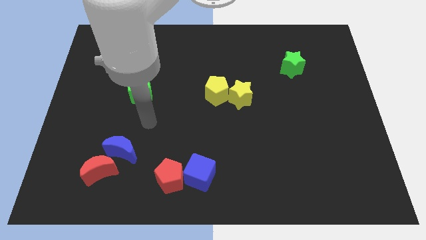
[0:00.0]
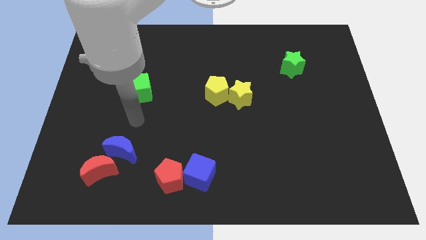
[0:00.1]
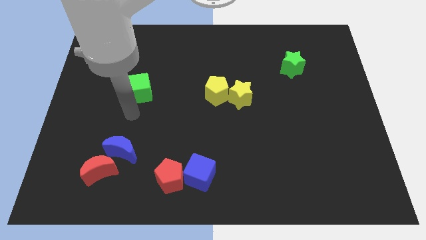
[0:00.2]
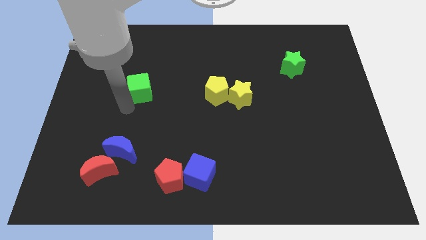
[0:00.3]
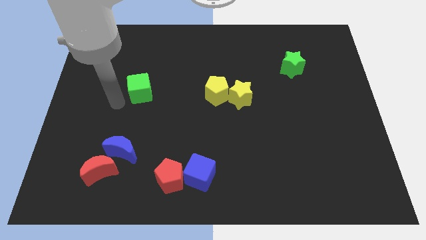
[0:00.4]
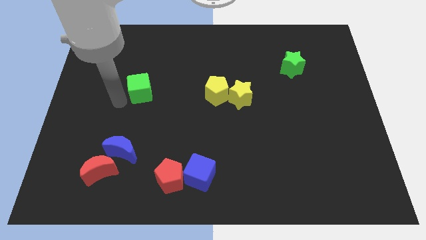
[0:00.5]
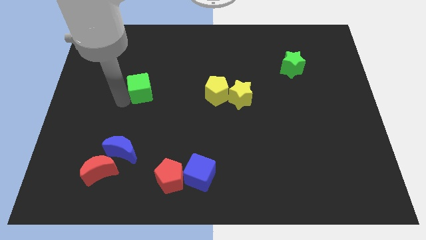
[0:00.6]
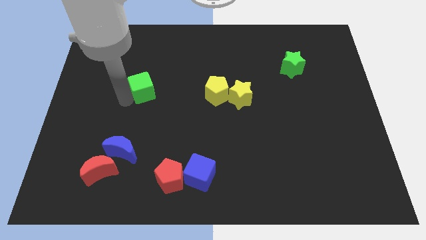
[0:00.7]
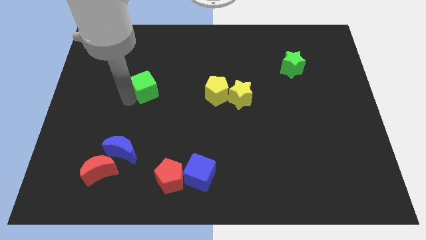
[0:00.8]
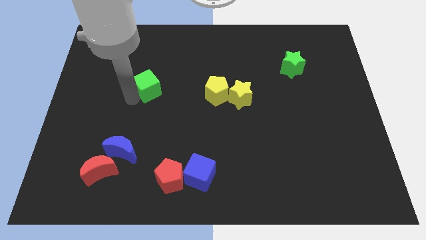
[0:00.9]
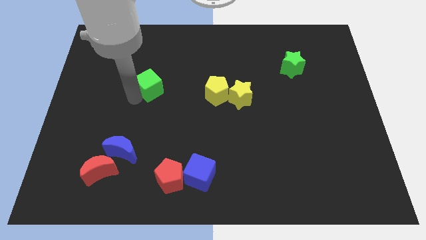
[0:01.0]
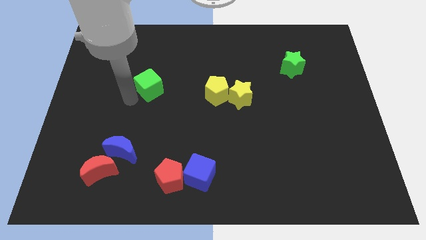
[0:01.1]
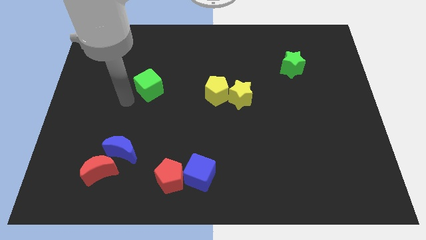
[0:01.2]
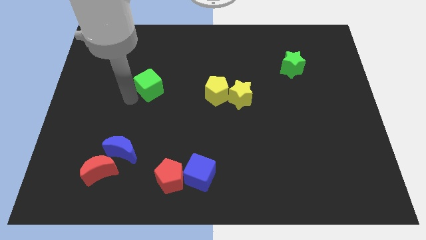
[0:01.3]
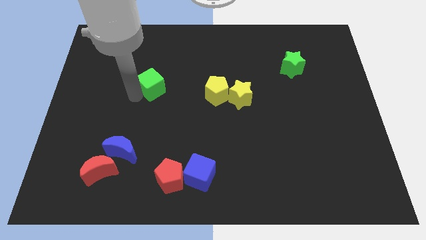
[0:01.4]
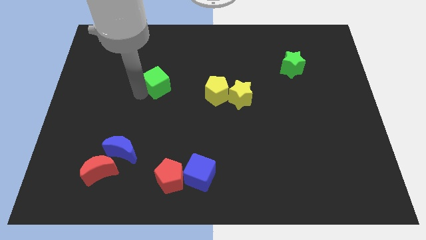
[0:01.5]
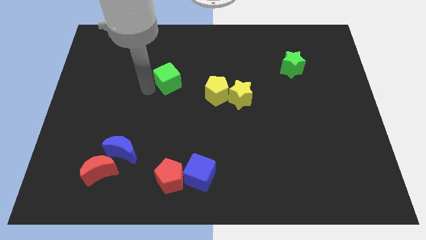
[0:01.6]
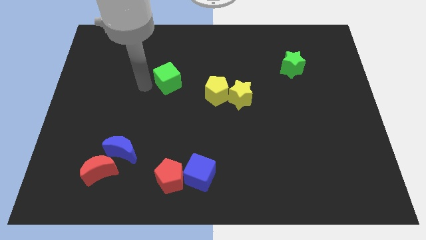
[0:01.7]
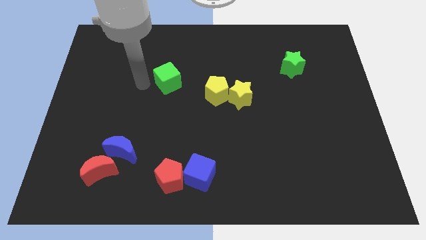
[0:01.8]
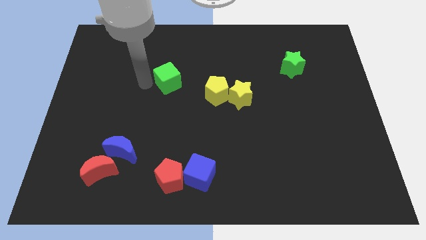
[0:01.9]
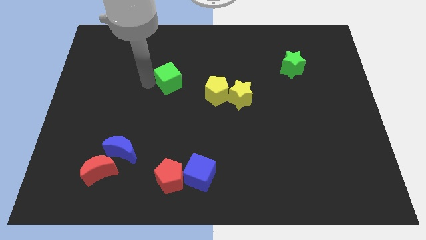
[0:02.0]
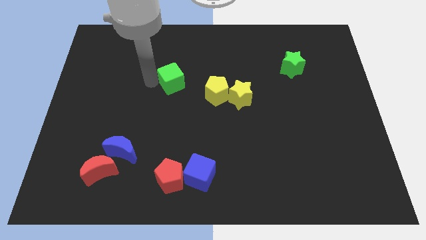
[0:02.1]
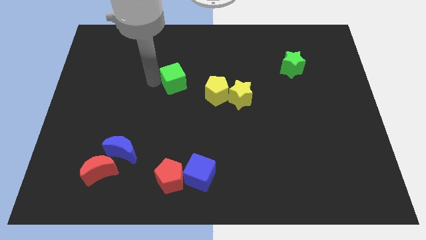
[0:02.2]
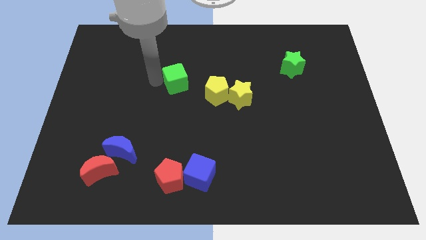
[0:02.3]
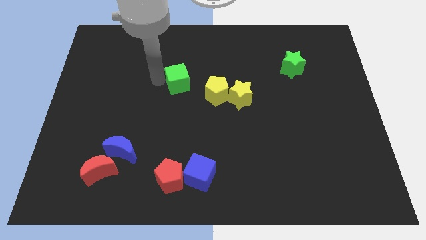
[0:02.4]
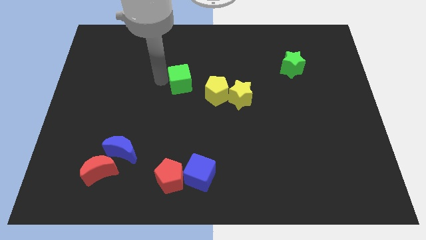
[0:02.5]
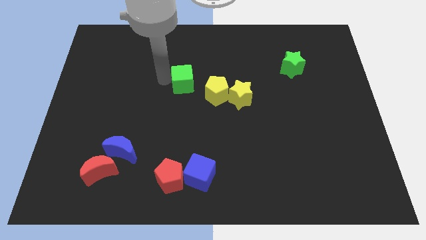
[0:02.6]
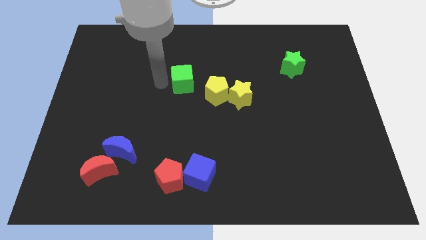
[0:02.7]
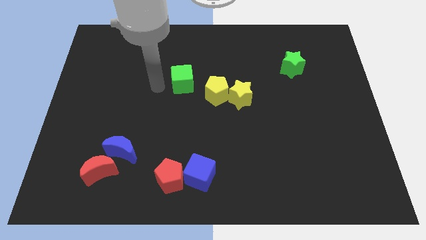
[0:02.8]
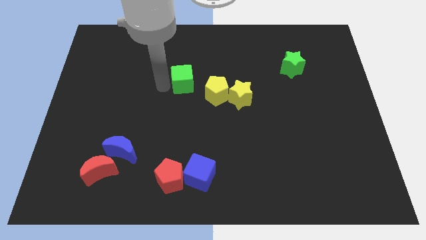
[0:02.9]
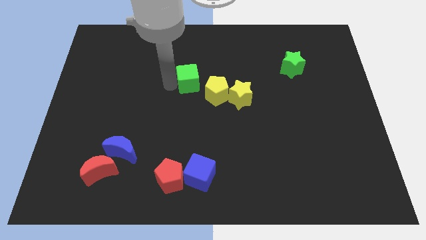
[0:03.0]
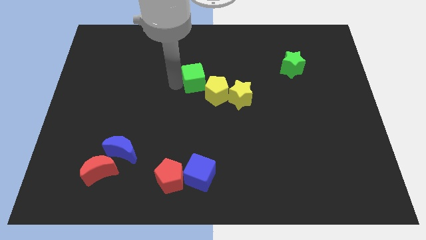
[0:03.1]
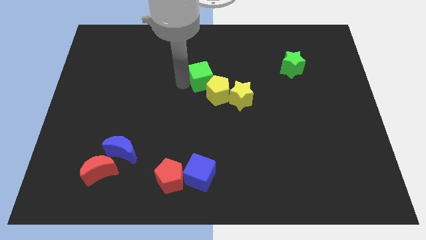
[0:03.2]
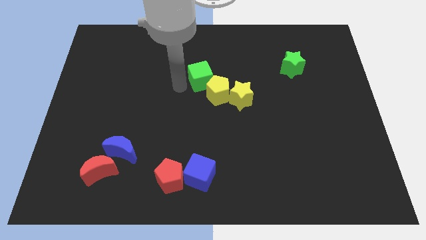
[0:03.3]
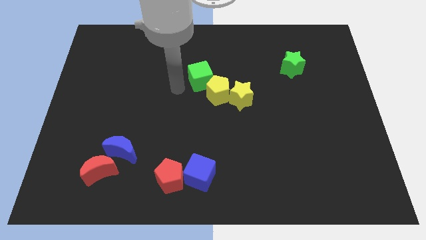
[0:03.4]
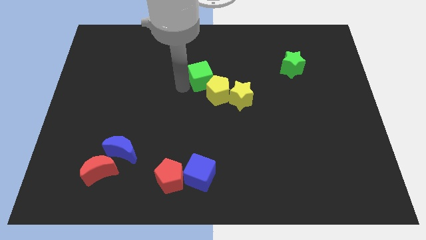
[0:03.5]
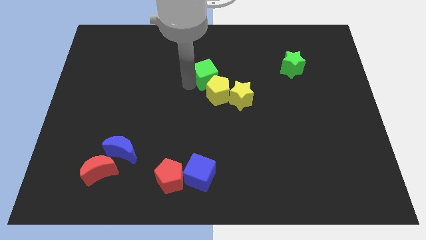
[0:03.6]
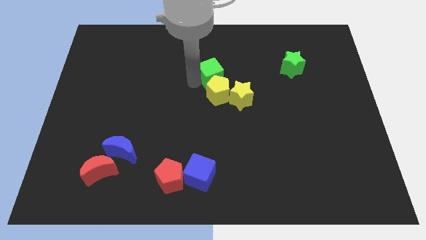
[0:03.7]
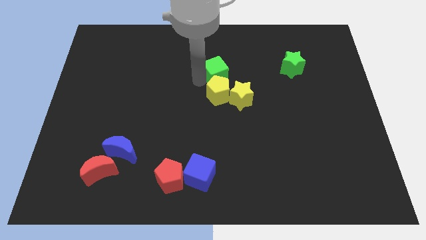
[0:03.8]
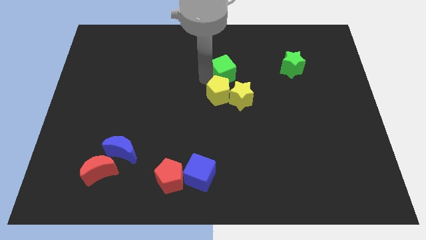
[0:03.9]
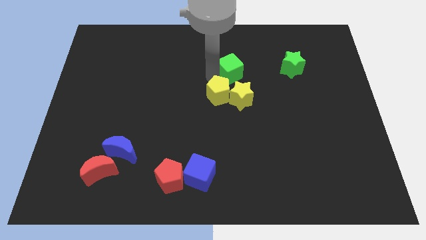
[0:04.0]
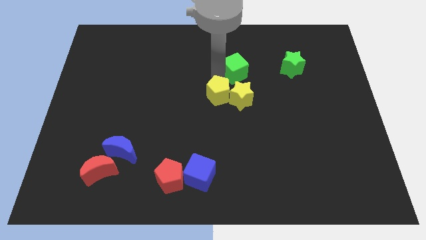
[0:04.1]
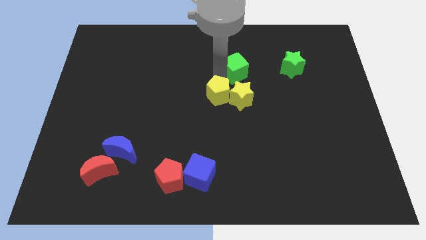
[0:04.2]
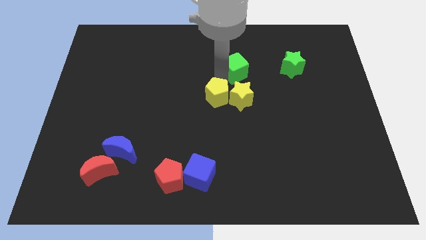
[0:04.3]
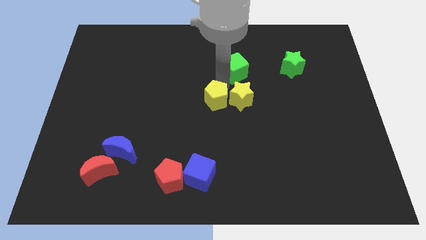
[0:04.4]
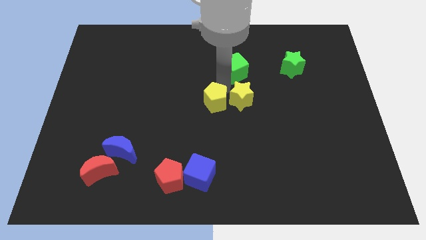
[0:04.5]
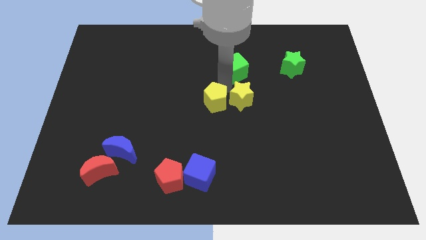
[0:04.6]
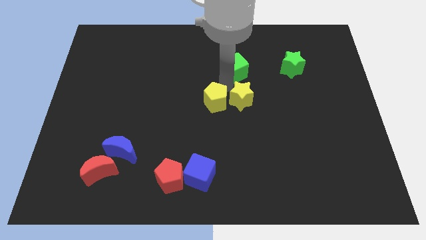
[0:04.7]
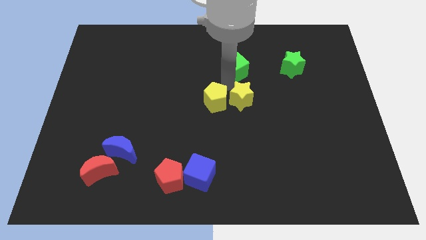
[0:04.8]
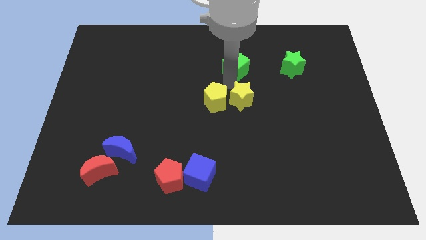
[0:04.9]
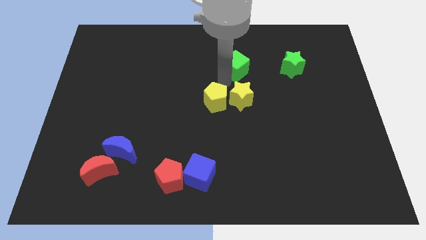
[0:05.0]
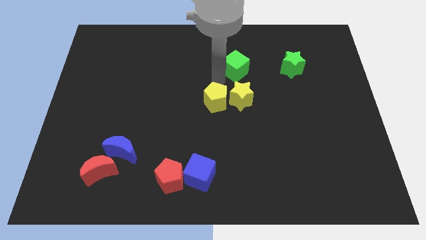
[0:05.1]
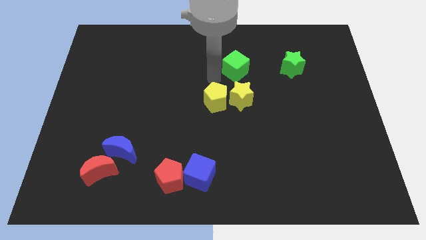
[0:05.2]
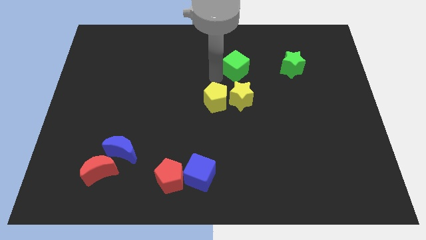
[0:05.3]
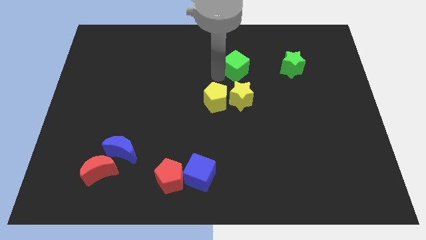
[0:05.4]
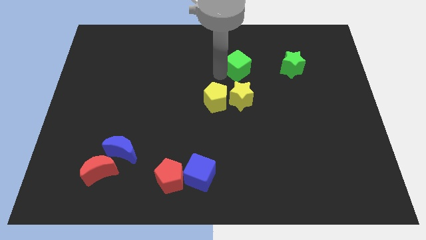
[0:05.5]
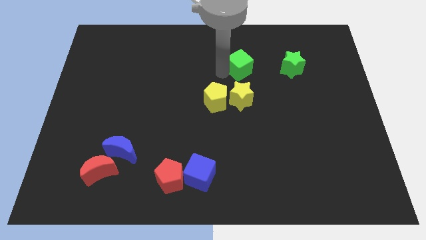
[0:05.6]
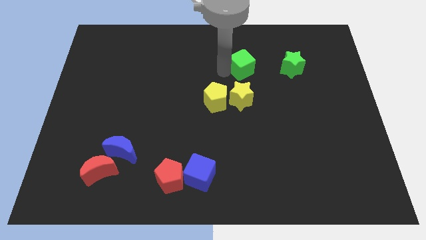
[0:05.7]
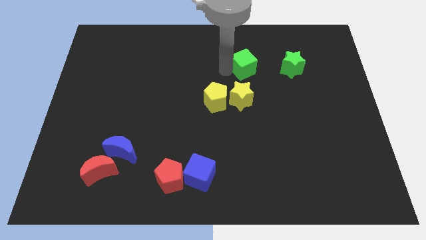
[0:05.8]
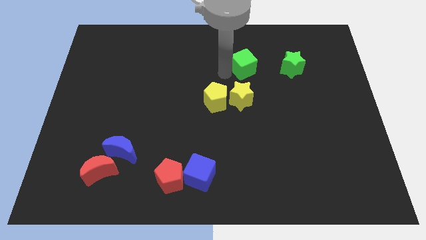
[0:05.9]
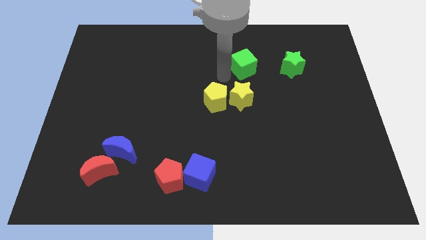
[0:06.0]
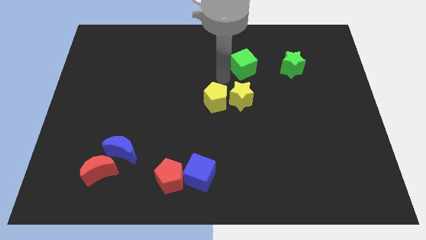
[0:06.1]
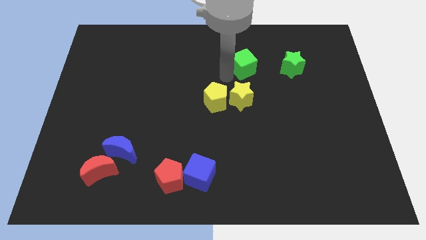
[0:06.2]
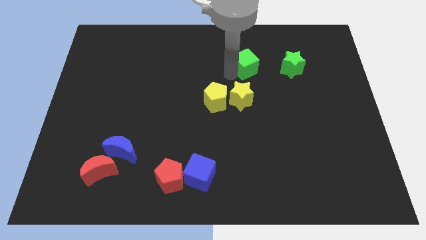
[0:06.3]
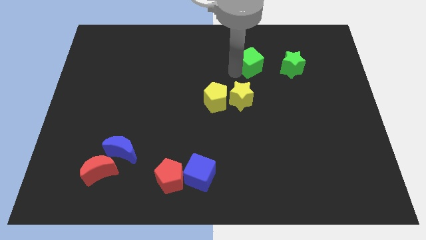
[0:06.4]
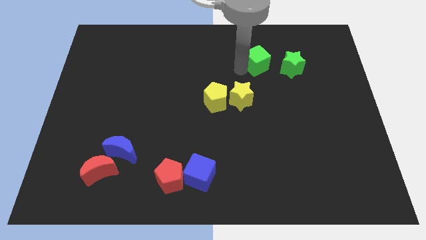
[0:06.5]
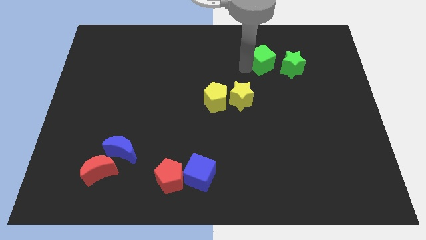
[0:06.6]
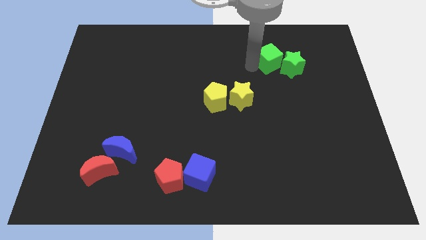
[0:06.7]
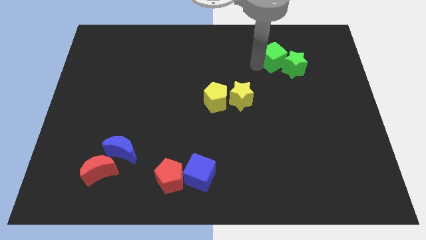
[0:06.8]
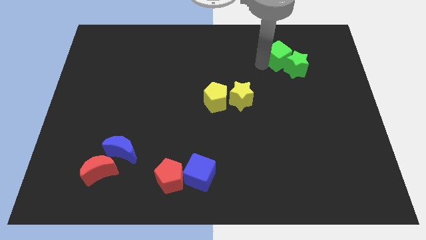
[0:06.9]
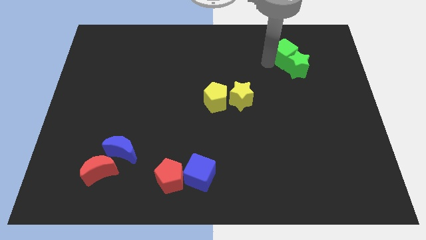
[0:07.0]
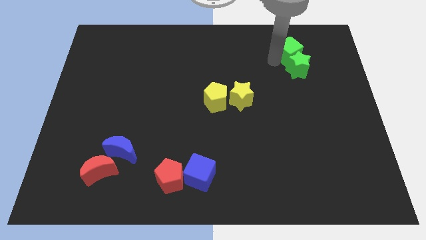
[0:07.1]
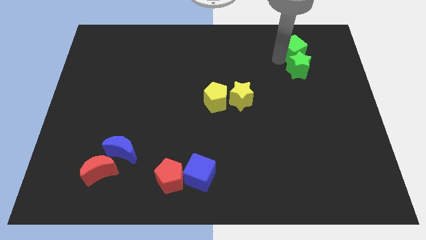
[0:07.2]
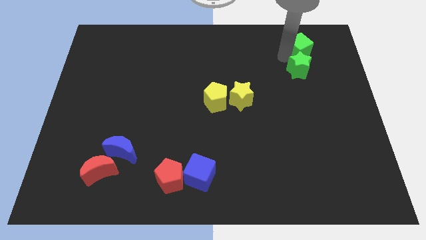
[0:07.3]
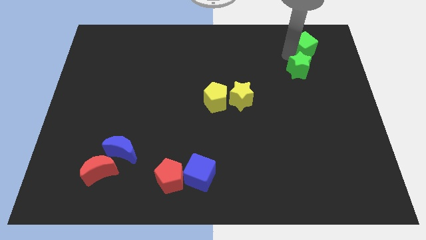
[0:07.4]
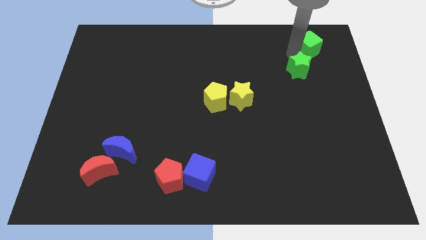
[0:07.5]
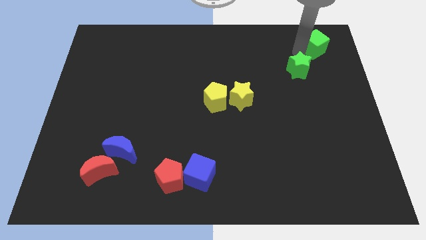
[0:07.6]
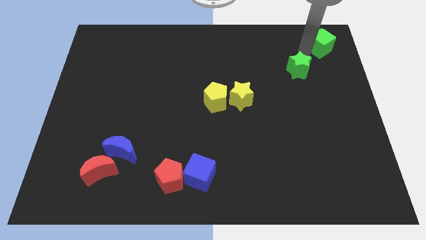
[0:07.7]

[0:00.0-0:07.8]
slide the green cube to the top right
